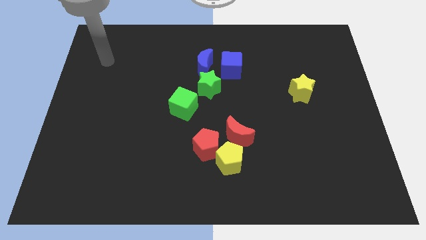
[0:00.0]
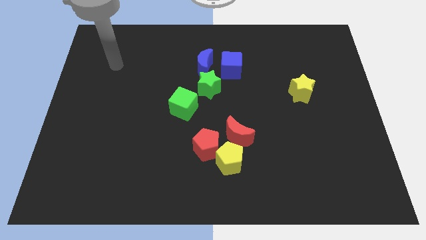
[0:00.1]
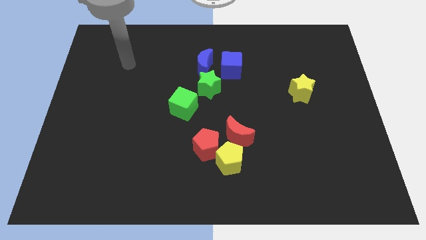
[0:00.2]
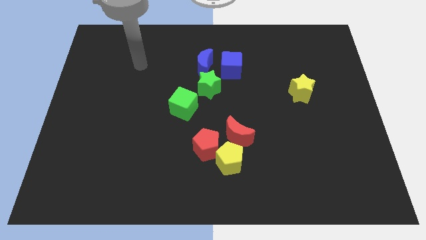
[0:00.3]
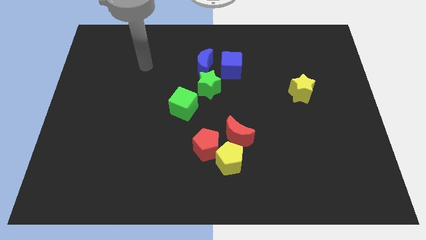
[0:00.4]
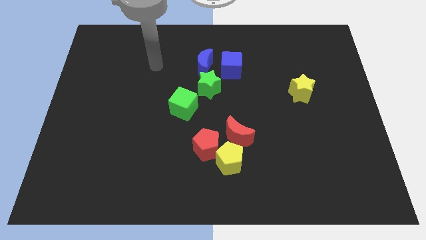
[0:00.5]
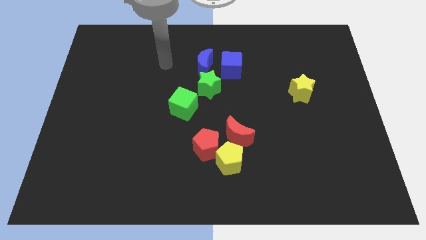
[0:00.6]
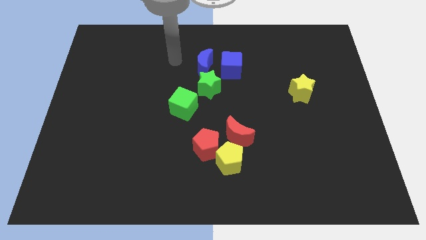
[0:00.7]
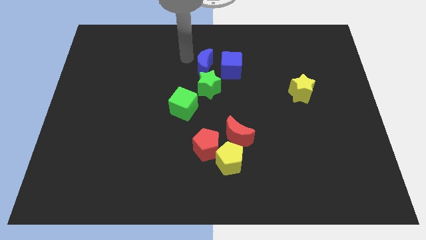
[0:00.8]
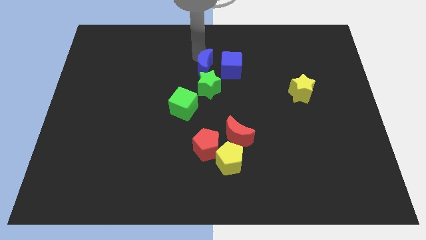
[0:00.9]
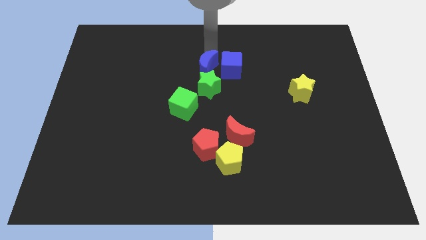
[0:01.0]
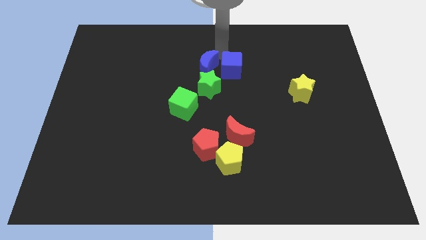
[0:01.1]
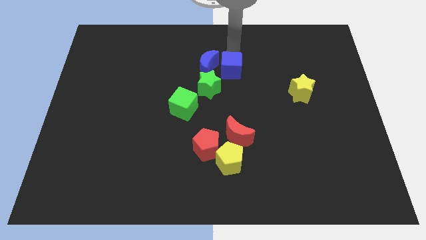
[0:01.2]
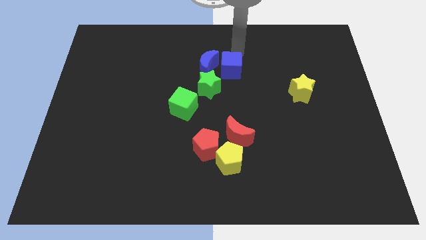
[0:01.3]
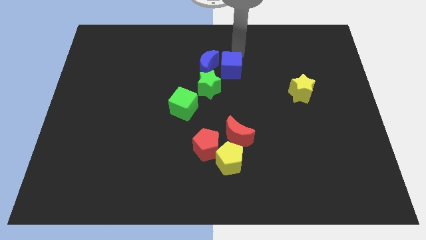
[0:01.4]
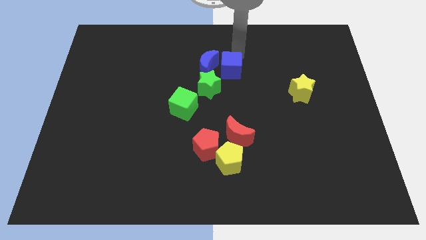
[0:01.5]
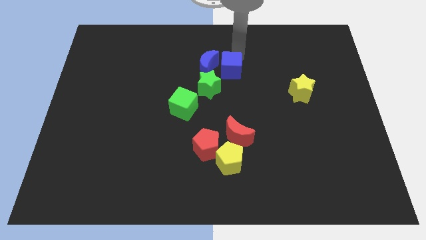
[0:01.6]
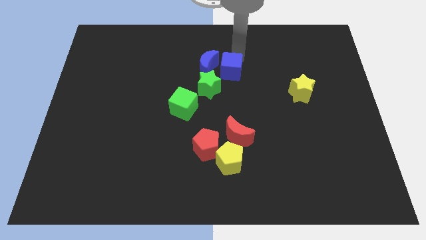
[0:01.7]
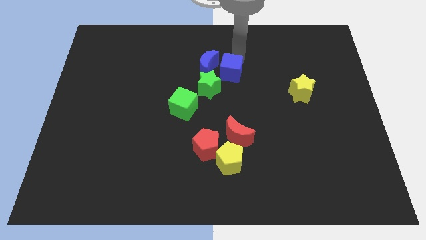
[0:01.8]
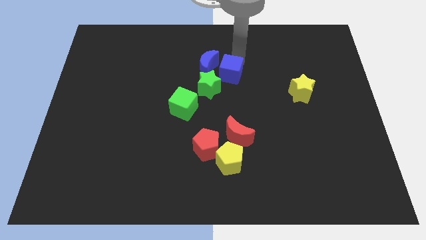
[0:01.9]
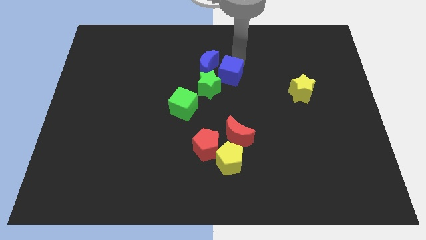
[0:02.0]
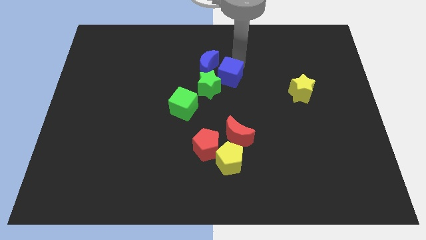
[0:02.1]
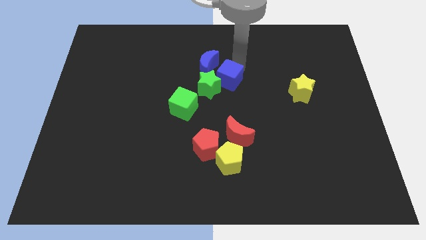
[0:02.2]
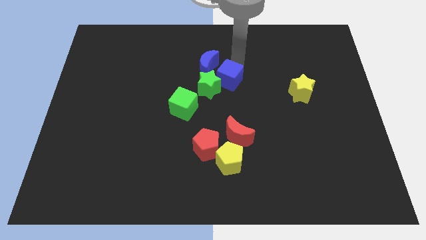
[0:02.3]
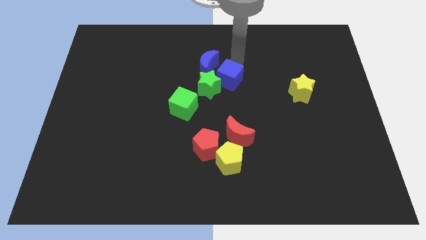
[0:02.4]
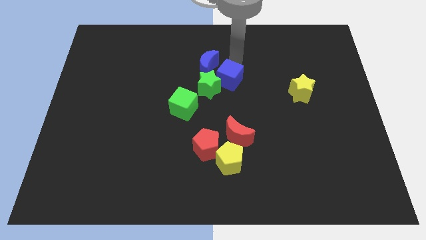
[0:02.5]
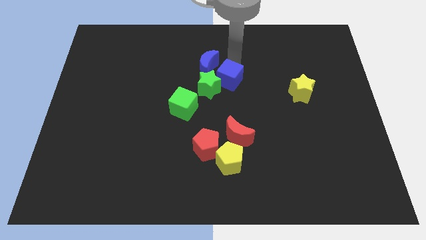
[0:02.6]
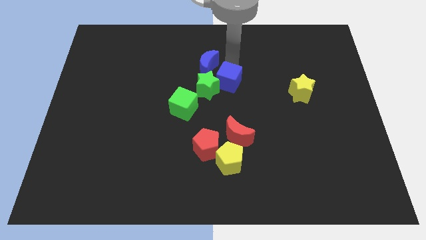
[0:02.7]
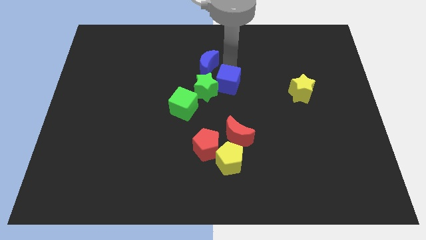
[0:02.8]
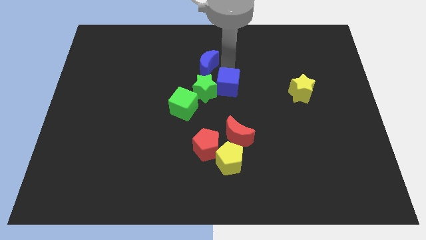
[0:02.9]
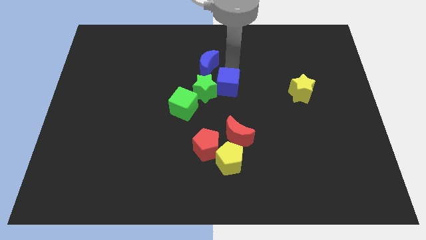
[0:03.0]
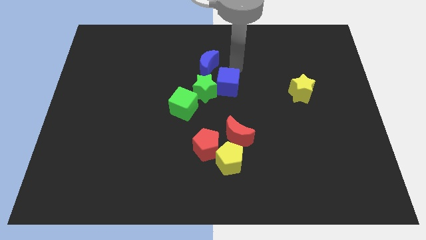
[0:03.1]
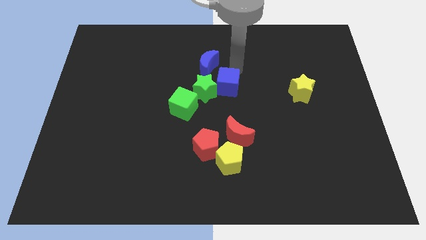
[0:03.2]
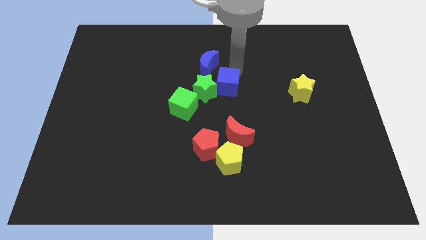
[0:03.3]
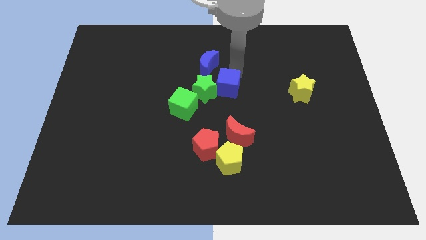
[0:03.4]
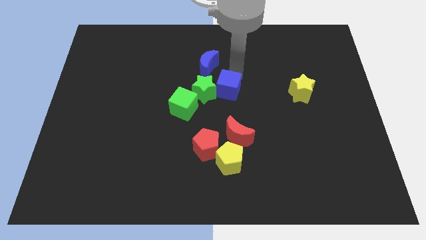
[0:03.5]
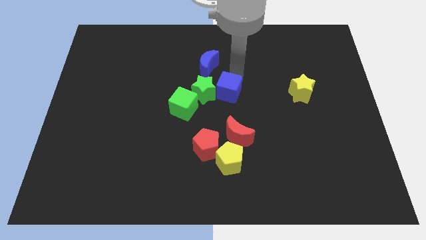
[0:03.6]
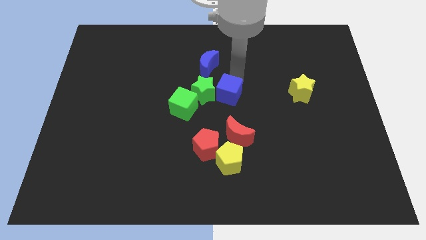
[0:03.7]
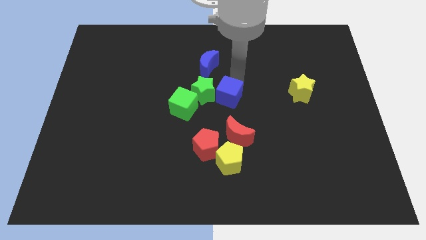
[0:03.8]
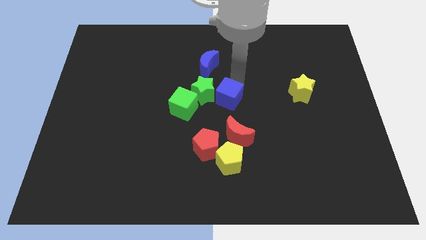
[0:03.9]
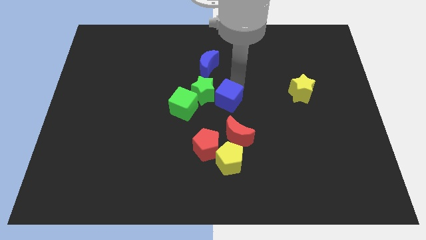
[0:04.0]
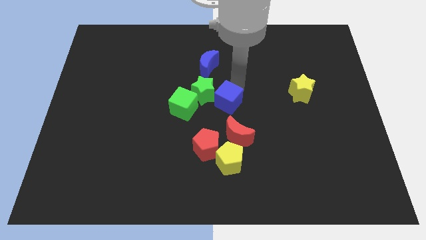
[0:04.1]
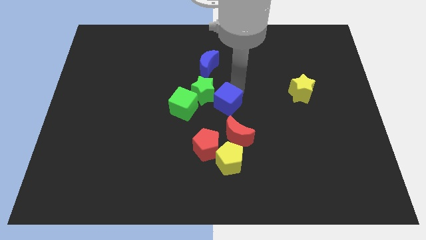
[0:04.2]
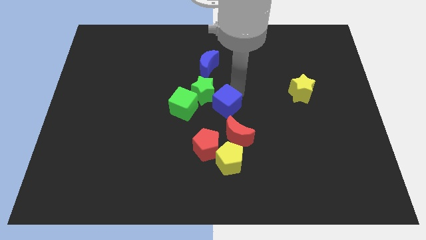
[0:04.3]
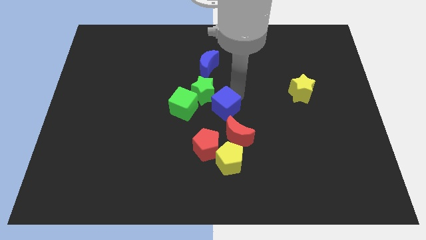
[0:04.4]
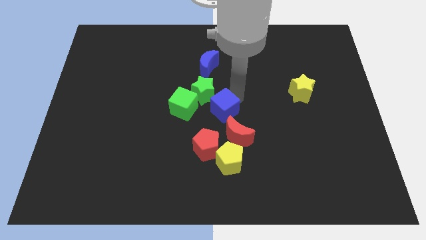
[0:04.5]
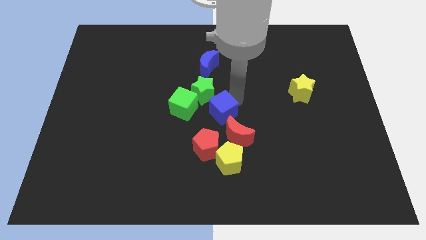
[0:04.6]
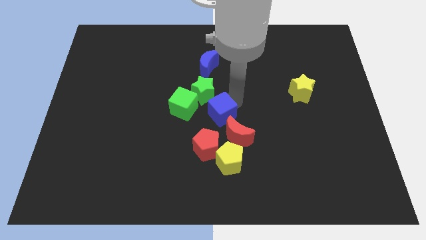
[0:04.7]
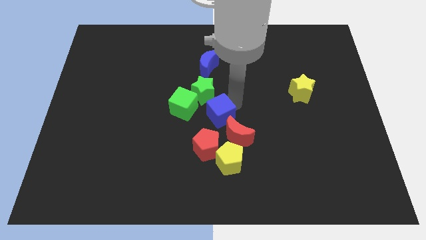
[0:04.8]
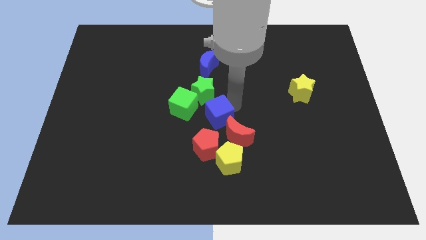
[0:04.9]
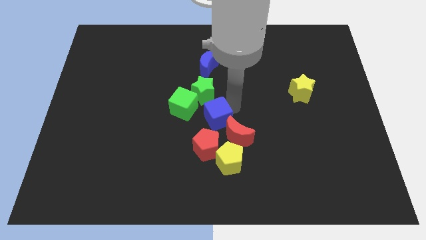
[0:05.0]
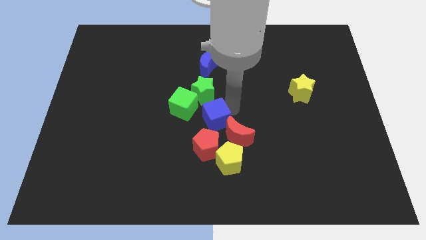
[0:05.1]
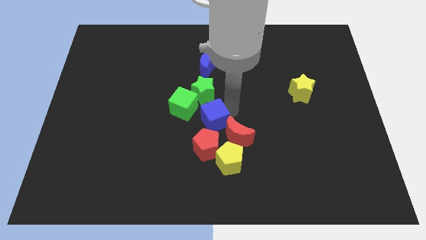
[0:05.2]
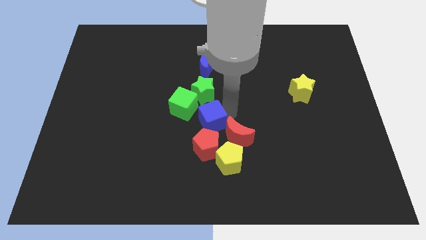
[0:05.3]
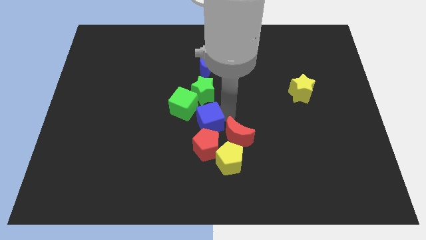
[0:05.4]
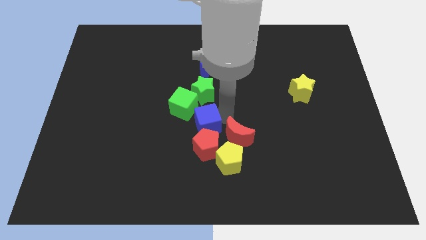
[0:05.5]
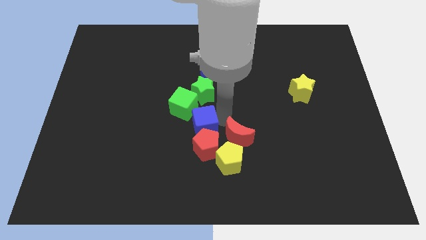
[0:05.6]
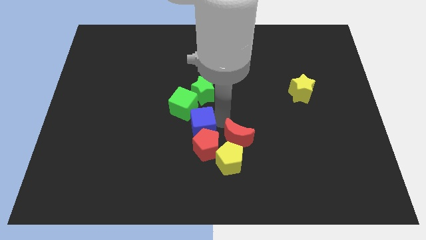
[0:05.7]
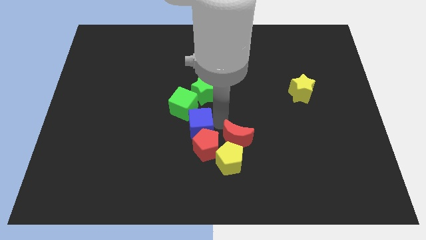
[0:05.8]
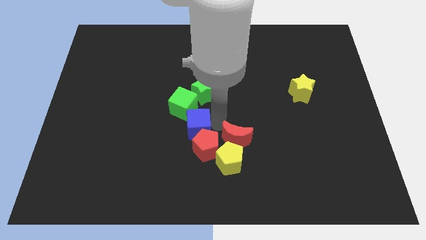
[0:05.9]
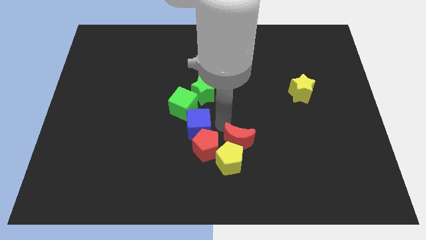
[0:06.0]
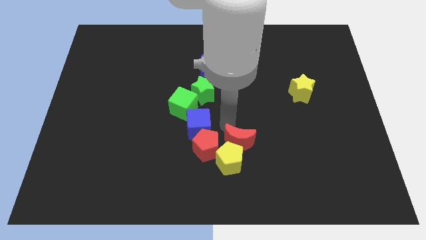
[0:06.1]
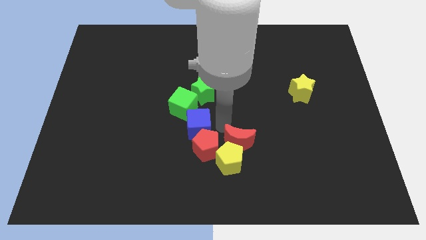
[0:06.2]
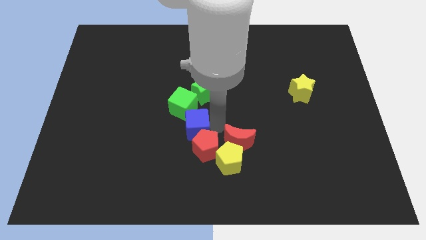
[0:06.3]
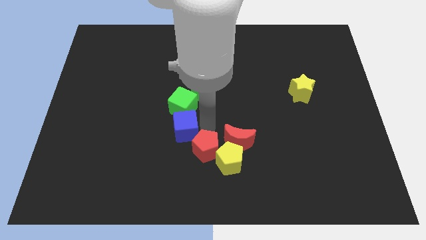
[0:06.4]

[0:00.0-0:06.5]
put the blue cube to the bottom left side of the green cube
